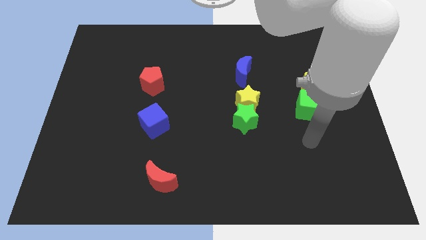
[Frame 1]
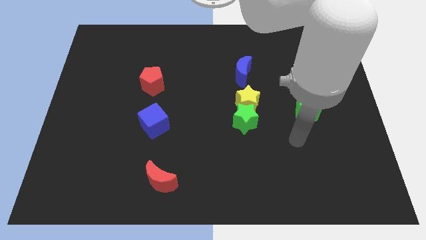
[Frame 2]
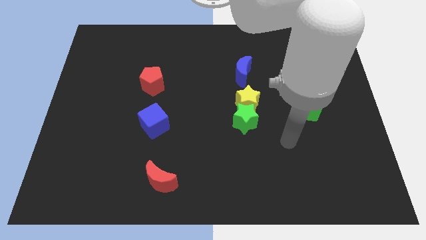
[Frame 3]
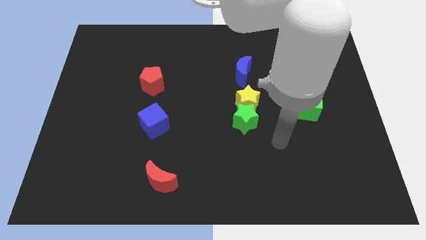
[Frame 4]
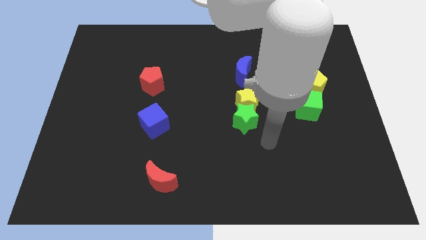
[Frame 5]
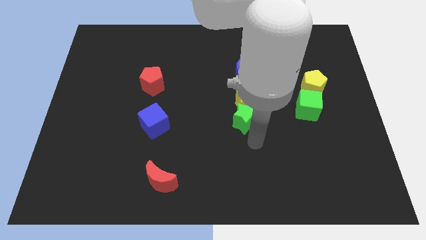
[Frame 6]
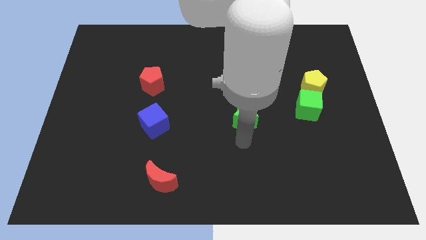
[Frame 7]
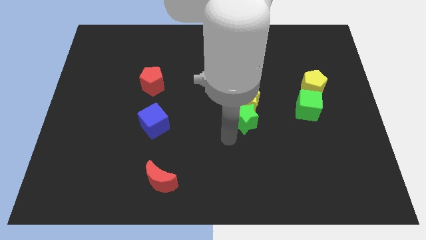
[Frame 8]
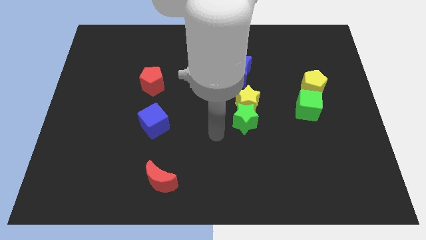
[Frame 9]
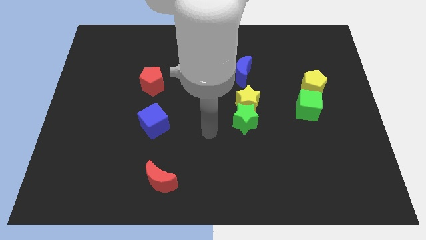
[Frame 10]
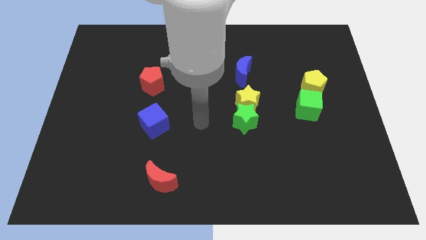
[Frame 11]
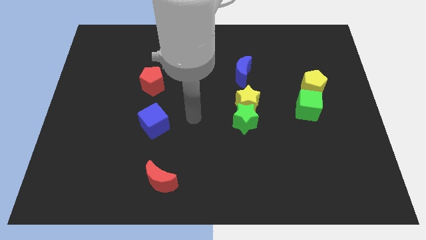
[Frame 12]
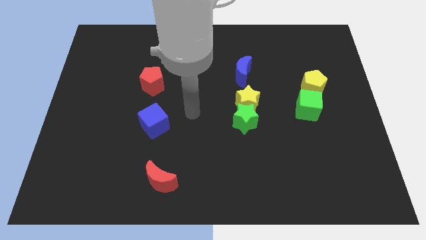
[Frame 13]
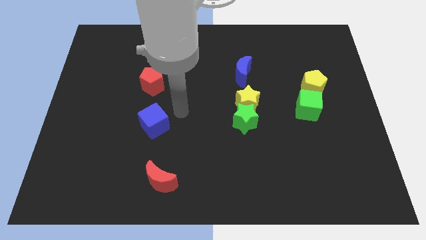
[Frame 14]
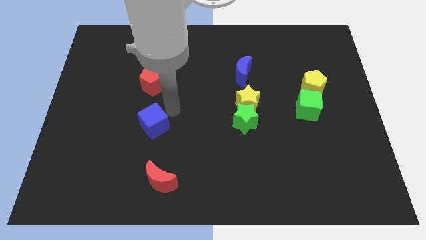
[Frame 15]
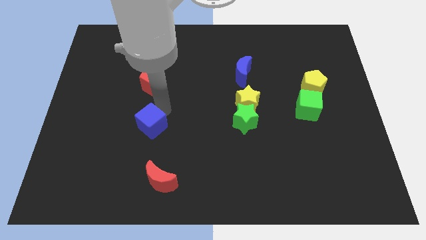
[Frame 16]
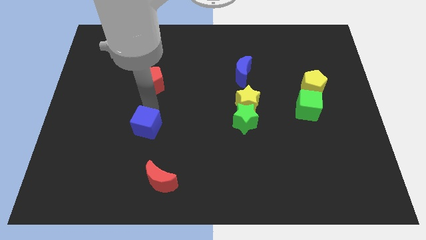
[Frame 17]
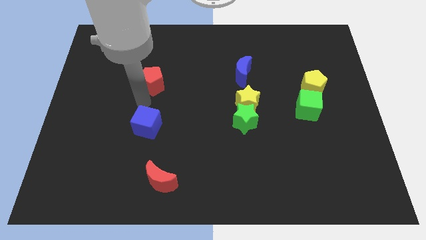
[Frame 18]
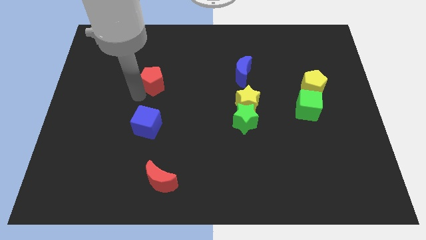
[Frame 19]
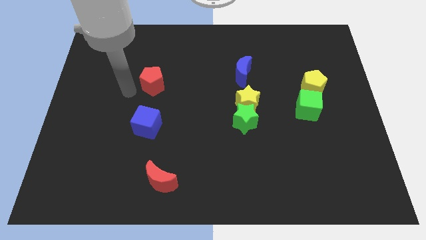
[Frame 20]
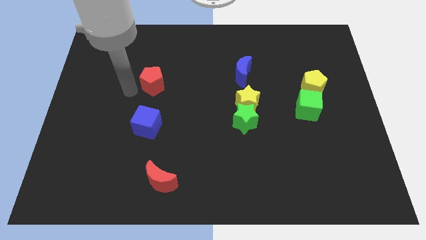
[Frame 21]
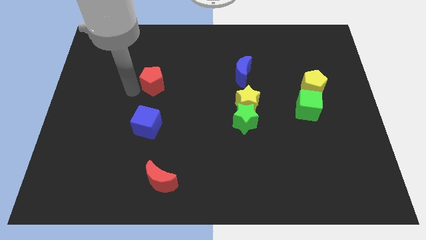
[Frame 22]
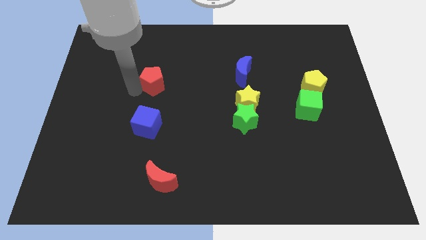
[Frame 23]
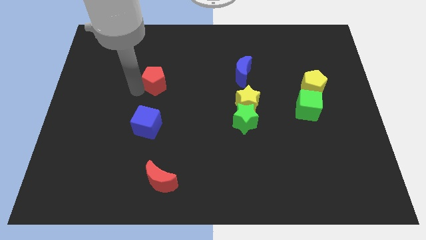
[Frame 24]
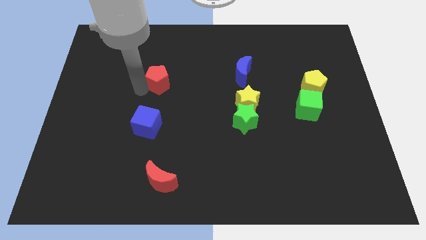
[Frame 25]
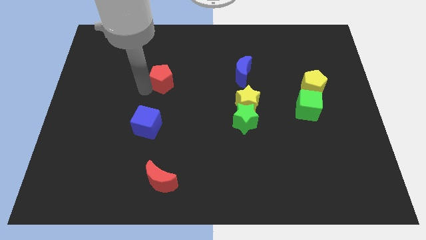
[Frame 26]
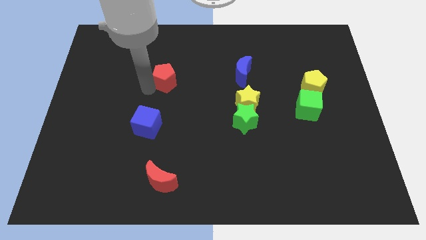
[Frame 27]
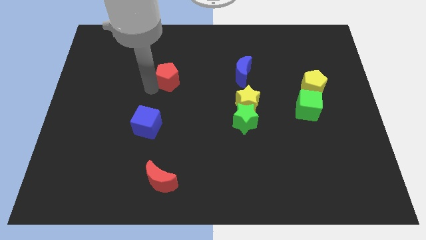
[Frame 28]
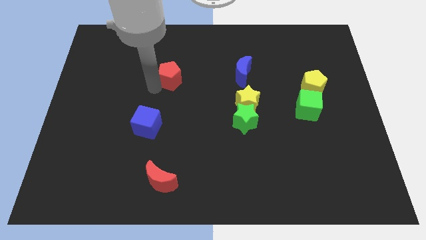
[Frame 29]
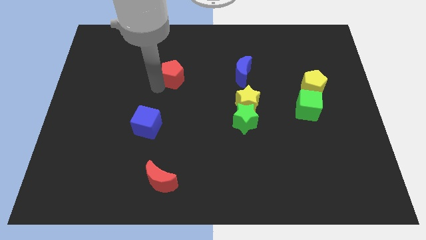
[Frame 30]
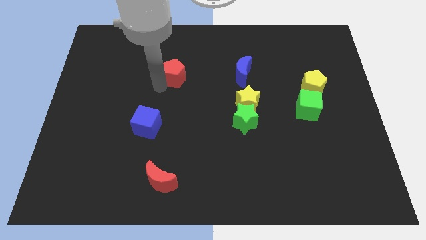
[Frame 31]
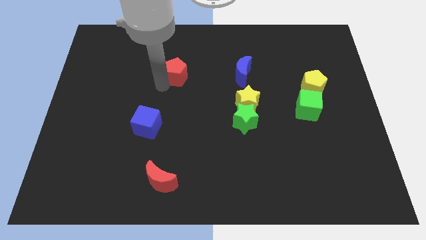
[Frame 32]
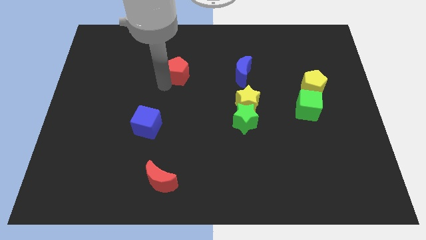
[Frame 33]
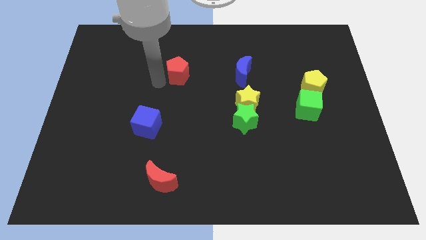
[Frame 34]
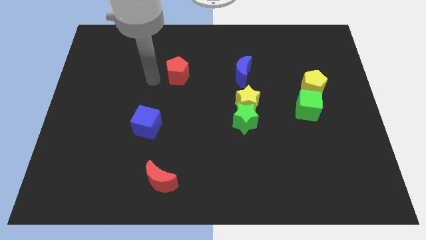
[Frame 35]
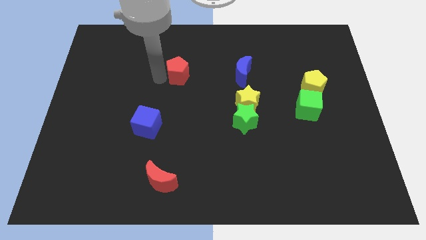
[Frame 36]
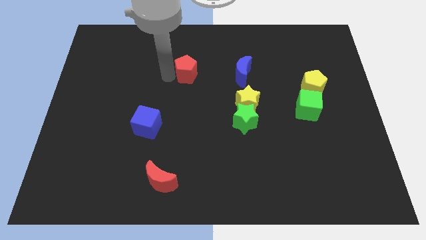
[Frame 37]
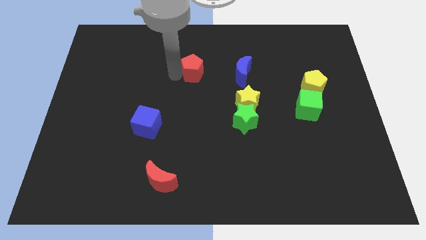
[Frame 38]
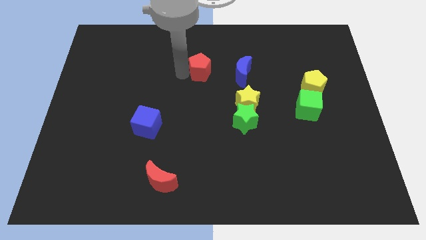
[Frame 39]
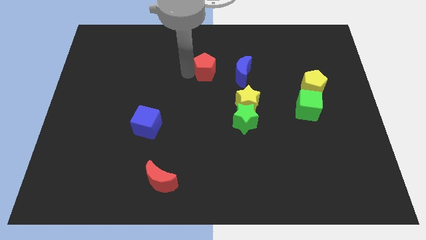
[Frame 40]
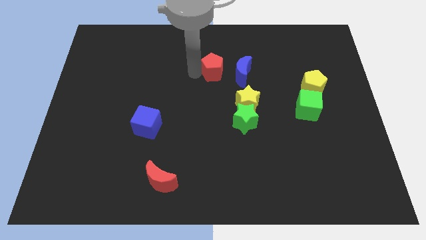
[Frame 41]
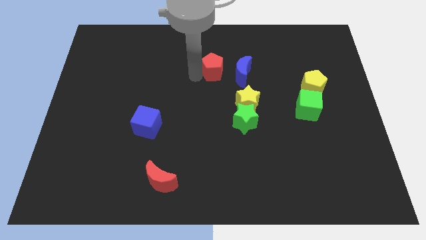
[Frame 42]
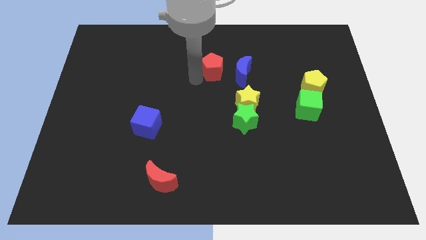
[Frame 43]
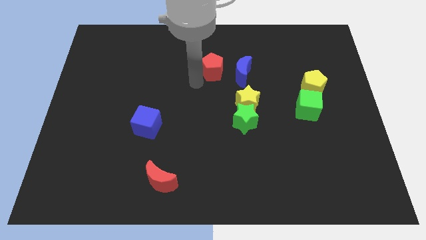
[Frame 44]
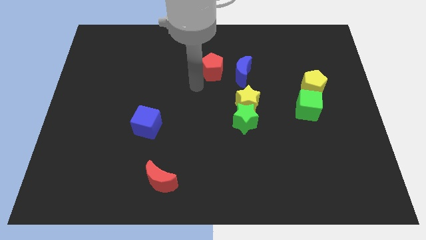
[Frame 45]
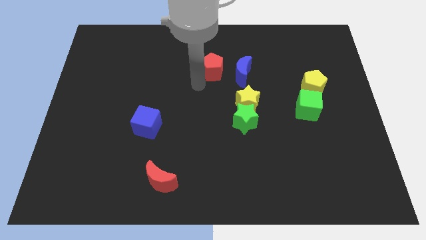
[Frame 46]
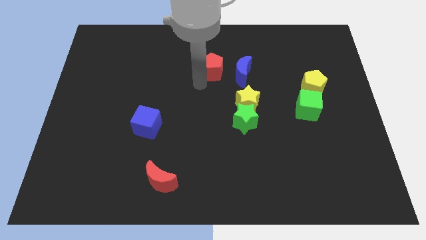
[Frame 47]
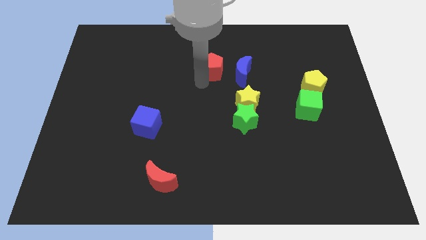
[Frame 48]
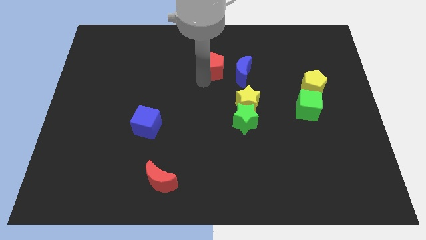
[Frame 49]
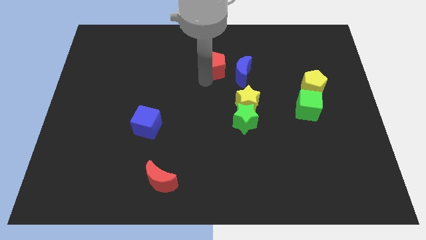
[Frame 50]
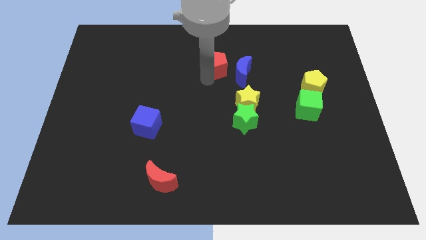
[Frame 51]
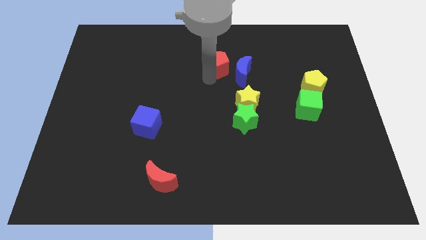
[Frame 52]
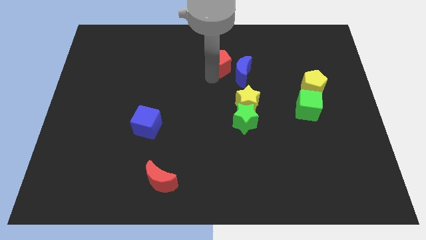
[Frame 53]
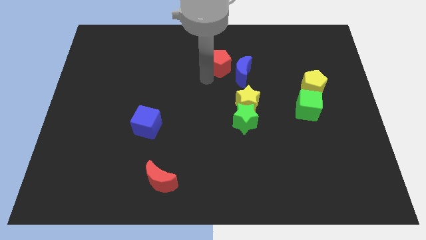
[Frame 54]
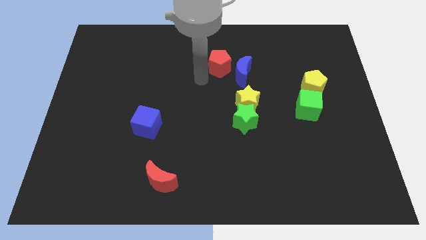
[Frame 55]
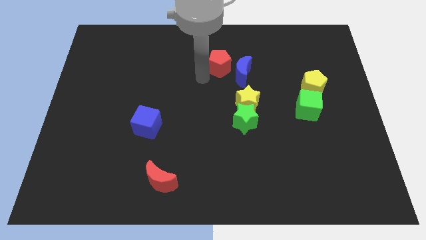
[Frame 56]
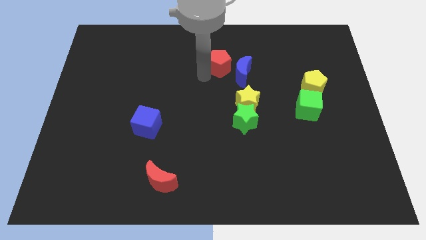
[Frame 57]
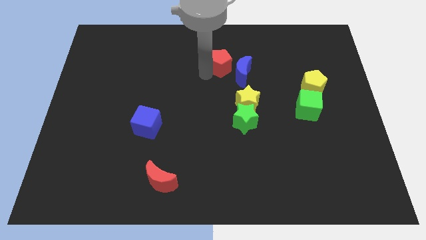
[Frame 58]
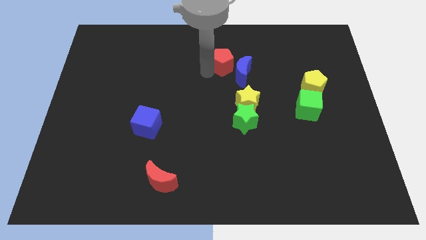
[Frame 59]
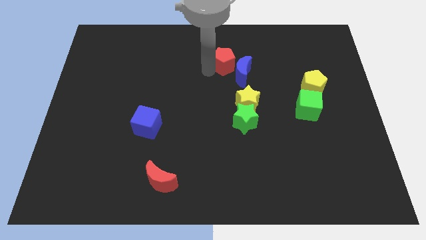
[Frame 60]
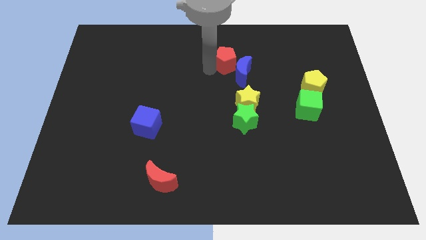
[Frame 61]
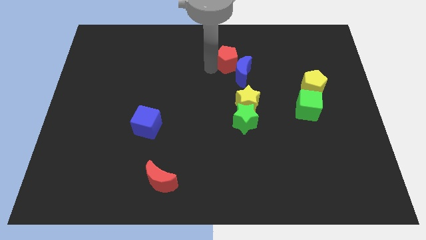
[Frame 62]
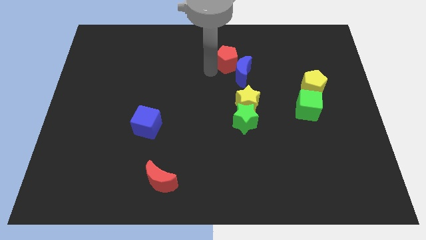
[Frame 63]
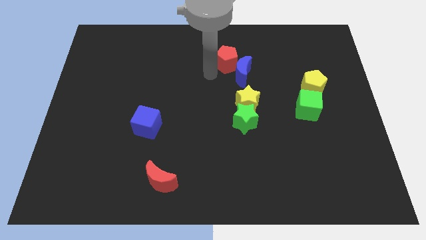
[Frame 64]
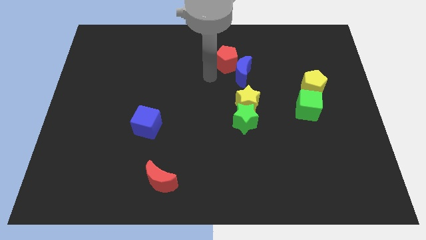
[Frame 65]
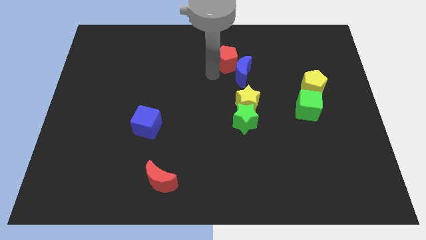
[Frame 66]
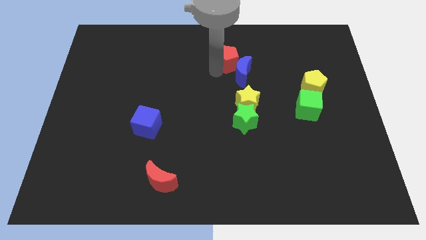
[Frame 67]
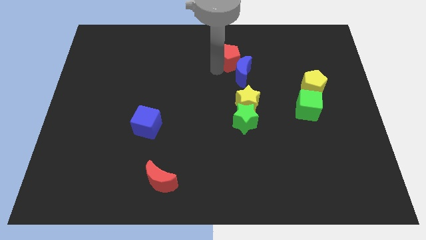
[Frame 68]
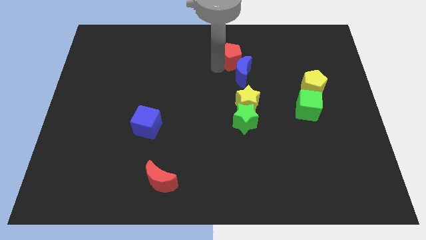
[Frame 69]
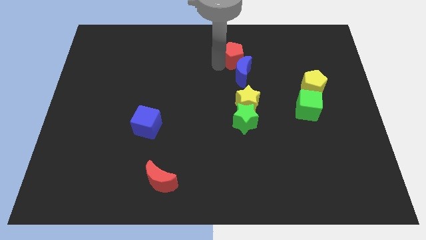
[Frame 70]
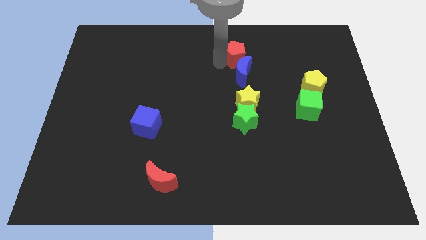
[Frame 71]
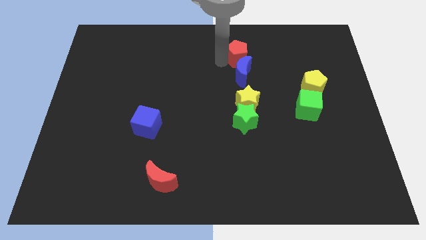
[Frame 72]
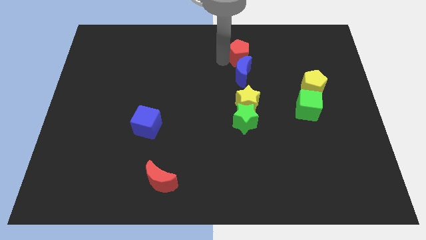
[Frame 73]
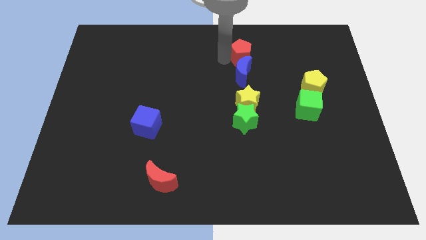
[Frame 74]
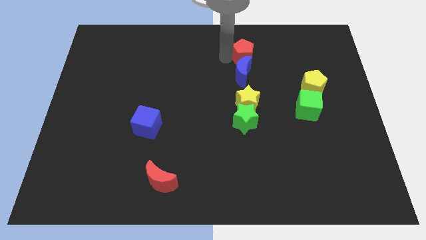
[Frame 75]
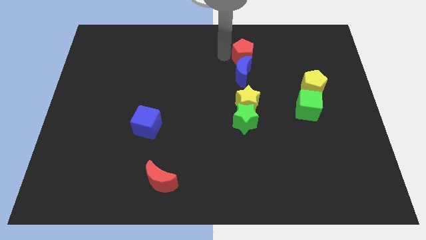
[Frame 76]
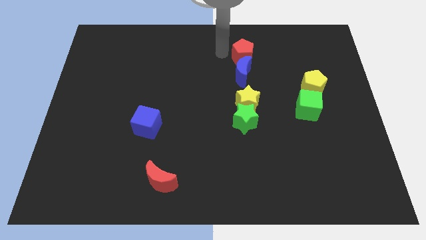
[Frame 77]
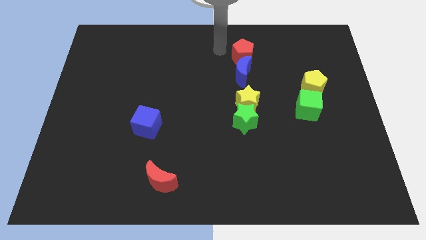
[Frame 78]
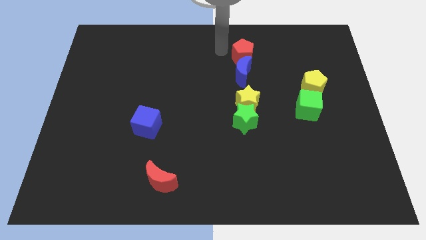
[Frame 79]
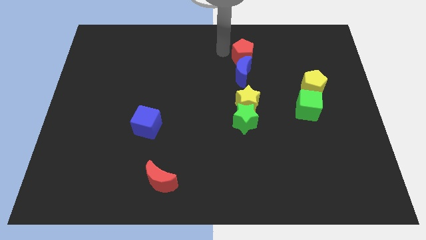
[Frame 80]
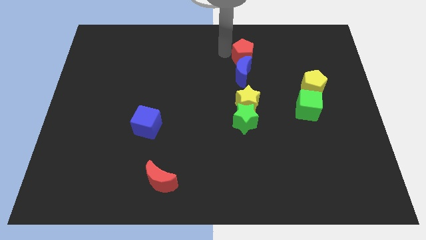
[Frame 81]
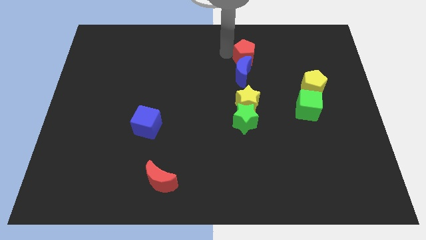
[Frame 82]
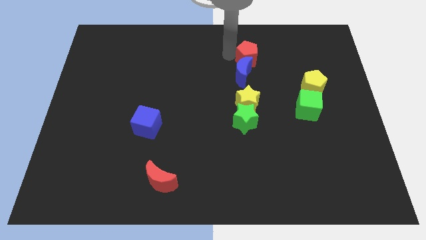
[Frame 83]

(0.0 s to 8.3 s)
push the red pentagon to the right

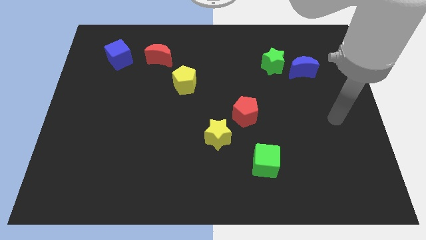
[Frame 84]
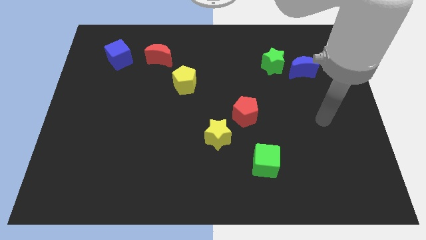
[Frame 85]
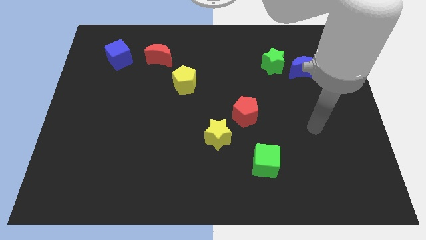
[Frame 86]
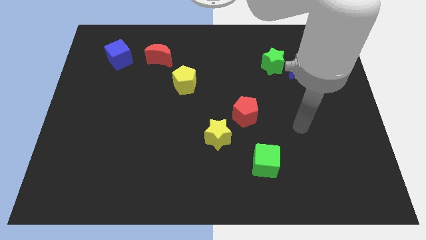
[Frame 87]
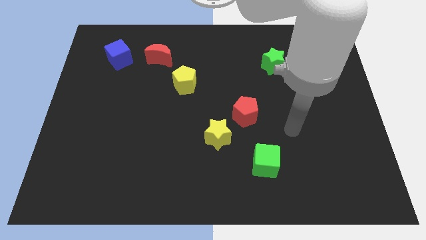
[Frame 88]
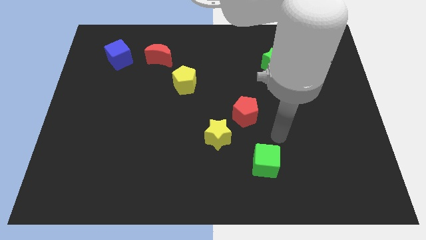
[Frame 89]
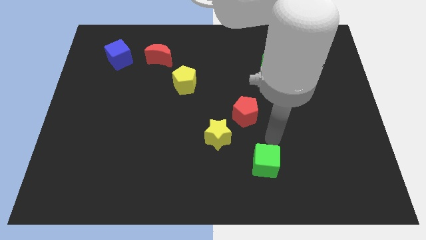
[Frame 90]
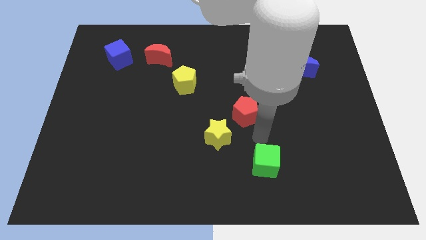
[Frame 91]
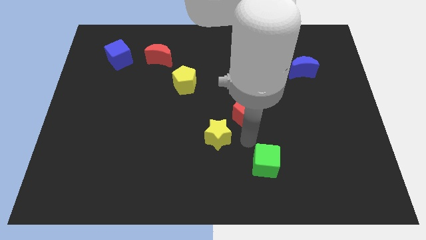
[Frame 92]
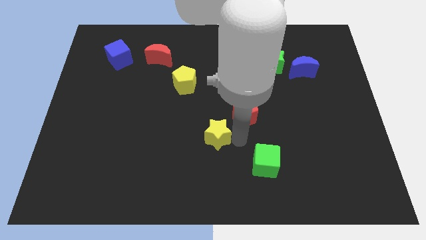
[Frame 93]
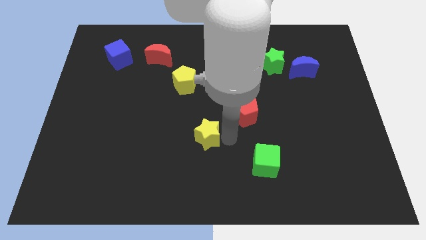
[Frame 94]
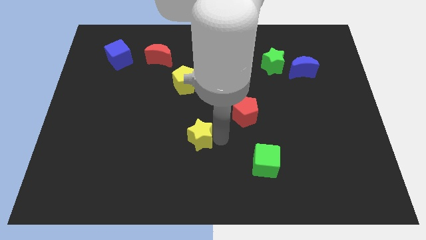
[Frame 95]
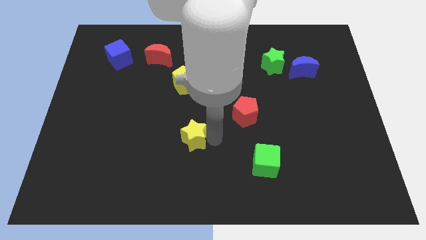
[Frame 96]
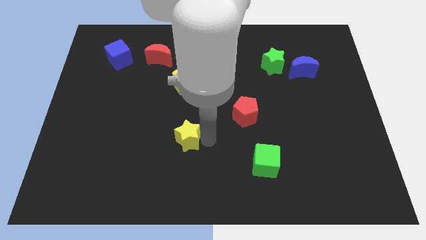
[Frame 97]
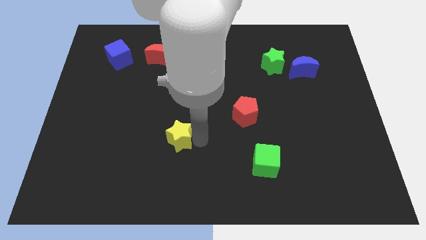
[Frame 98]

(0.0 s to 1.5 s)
push the yellow star a bit to the left
